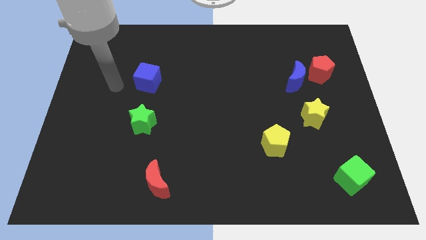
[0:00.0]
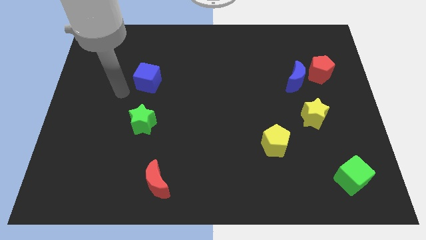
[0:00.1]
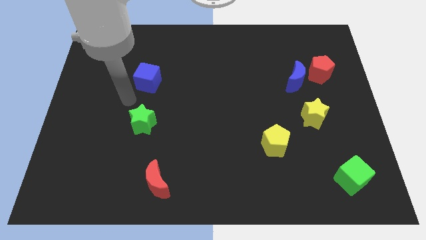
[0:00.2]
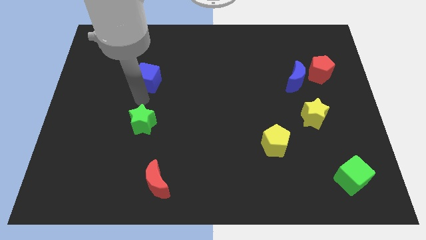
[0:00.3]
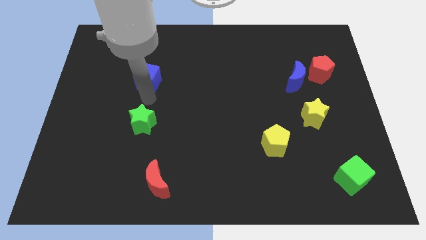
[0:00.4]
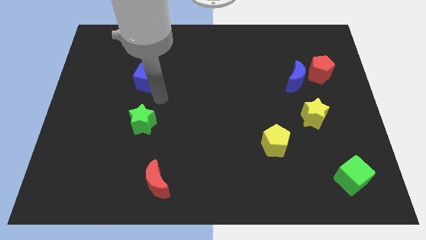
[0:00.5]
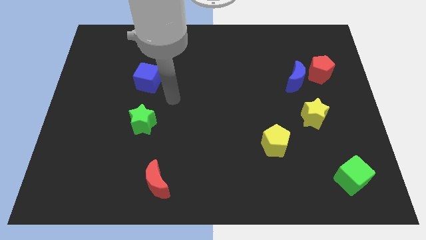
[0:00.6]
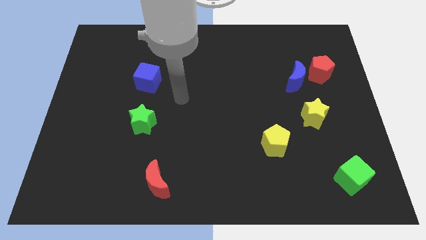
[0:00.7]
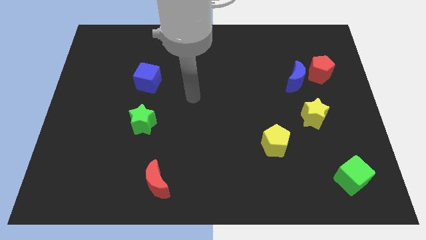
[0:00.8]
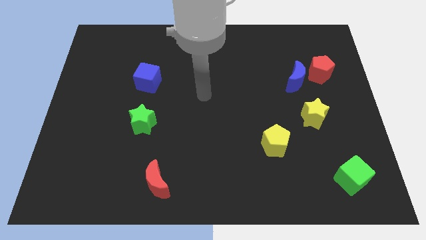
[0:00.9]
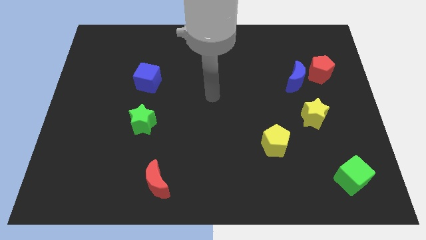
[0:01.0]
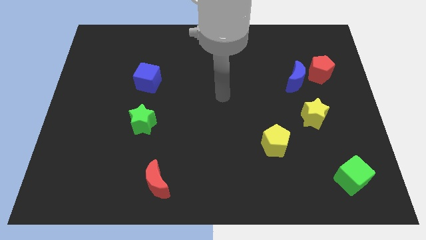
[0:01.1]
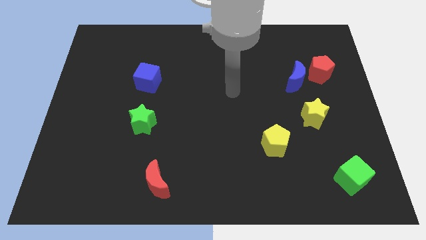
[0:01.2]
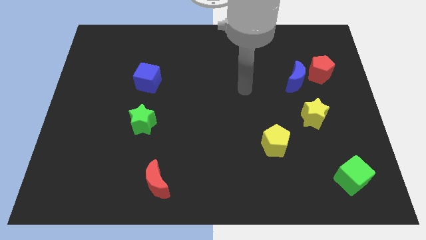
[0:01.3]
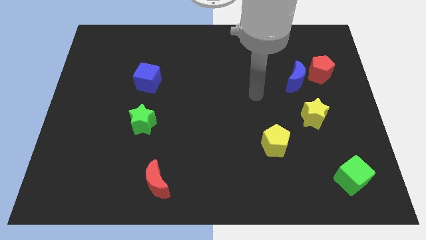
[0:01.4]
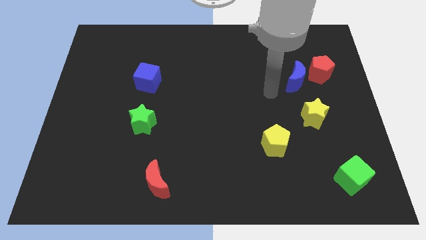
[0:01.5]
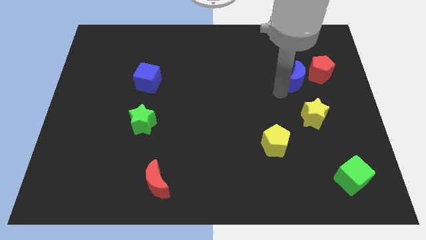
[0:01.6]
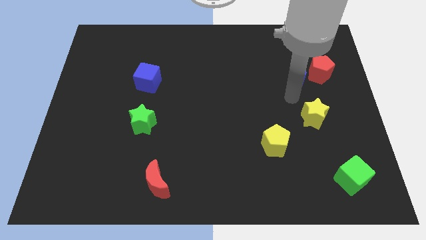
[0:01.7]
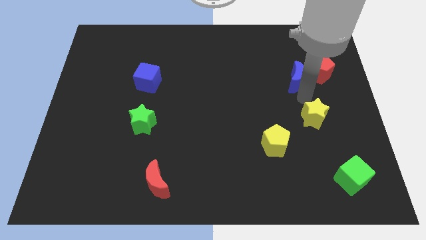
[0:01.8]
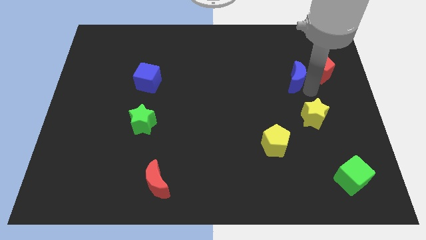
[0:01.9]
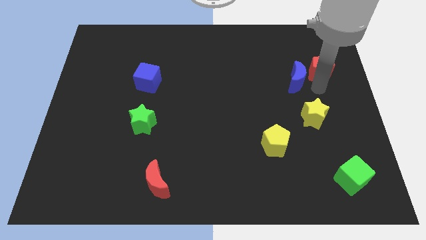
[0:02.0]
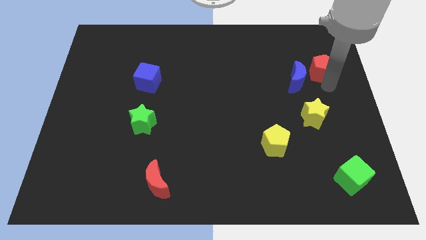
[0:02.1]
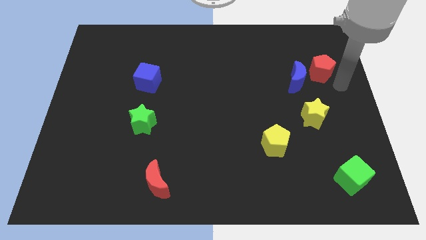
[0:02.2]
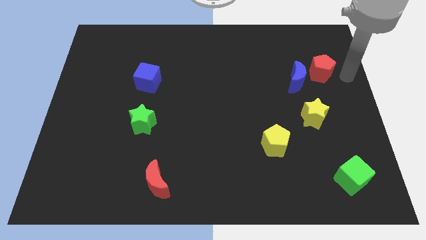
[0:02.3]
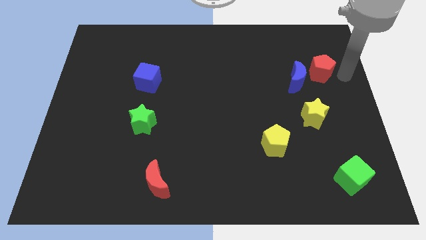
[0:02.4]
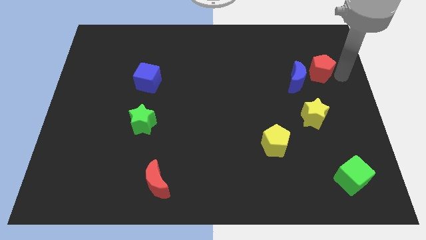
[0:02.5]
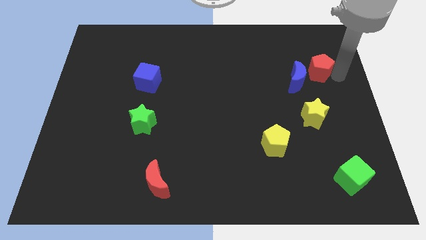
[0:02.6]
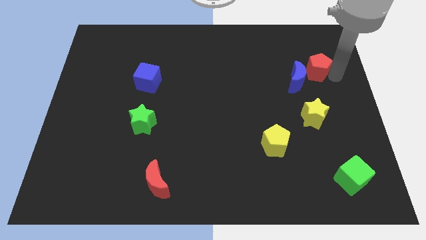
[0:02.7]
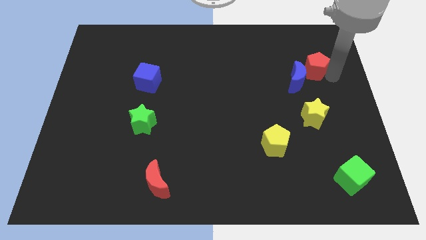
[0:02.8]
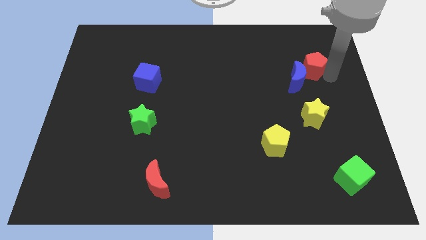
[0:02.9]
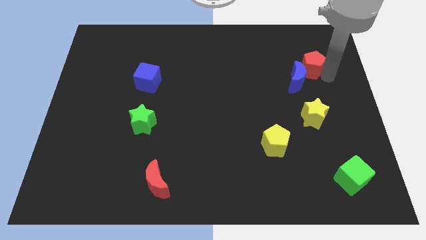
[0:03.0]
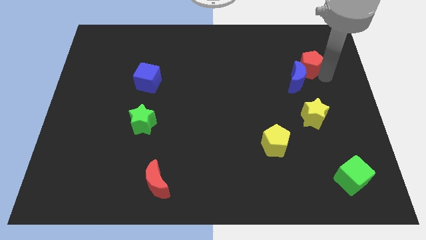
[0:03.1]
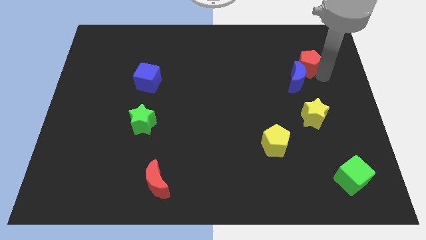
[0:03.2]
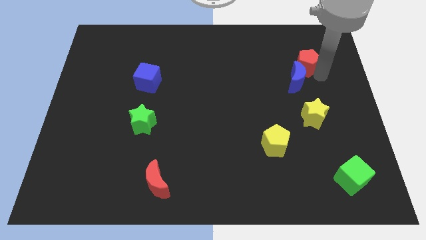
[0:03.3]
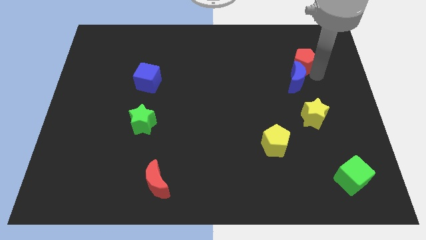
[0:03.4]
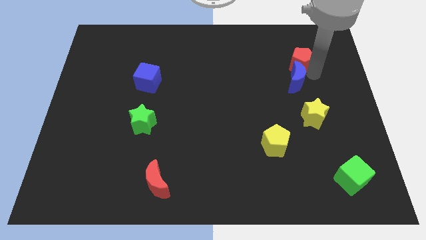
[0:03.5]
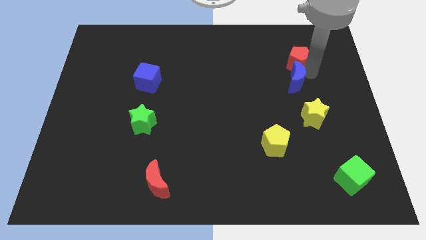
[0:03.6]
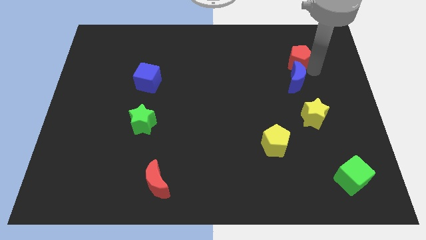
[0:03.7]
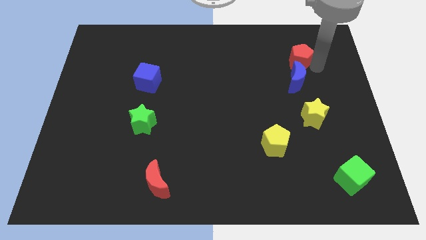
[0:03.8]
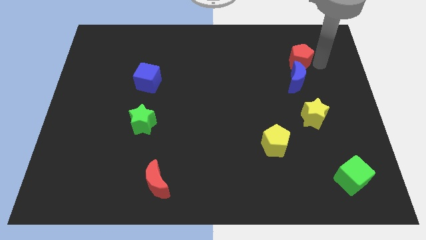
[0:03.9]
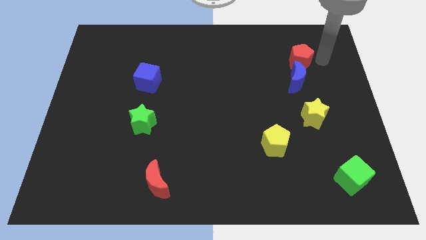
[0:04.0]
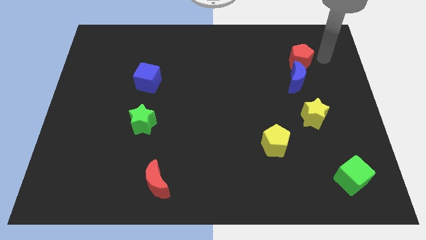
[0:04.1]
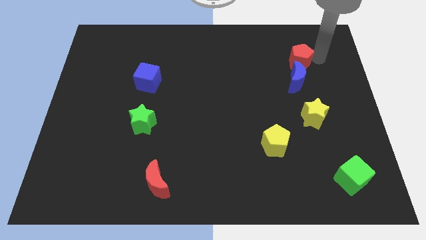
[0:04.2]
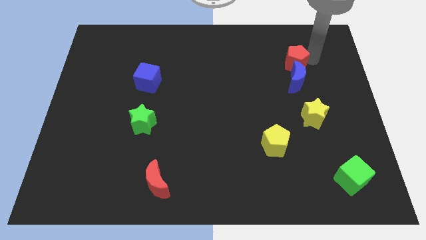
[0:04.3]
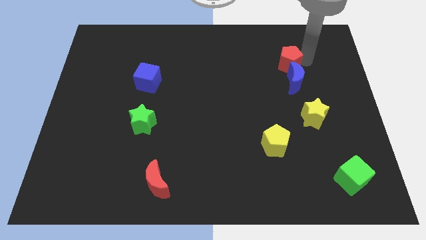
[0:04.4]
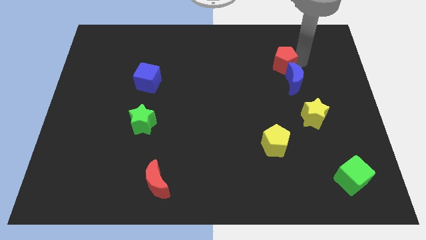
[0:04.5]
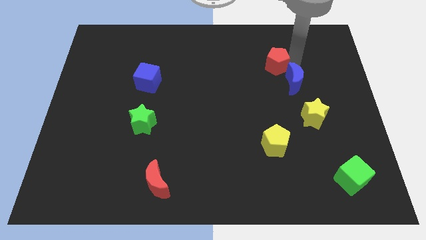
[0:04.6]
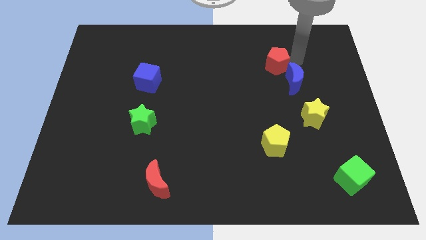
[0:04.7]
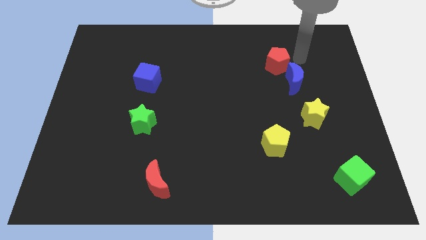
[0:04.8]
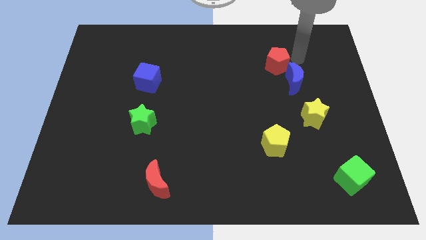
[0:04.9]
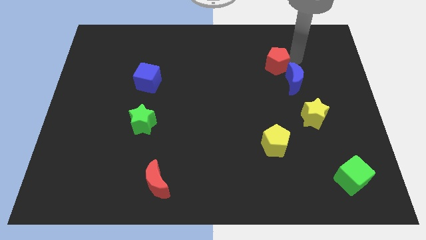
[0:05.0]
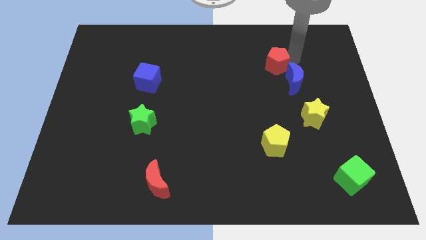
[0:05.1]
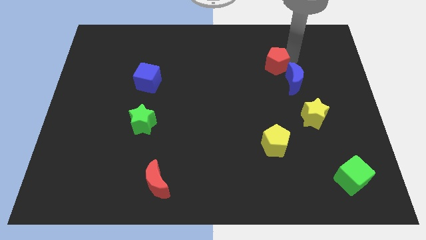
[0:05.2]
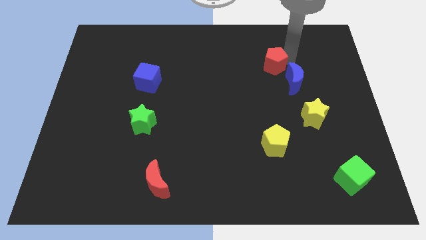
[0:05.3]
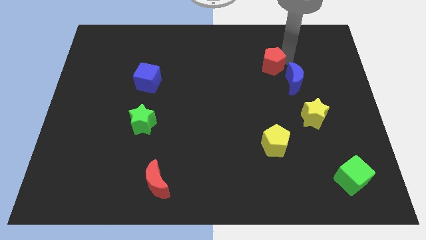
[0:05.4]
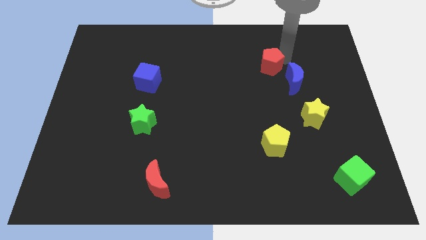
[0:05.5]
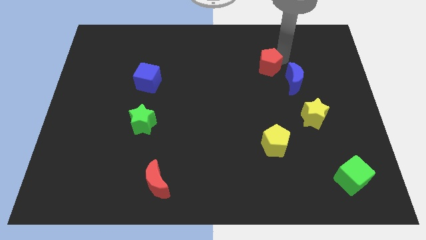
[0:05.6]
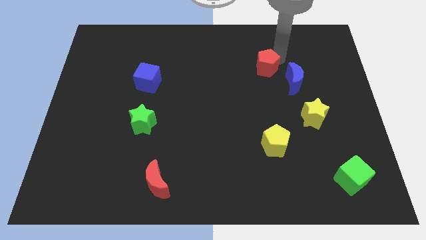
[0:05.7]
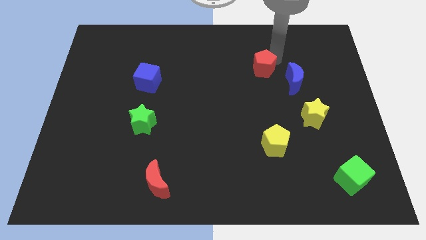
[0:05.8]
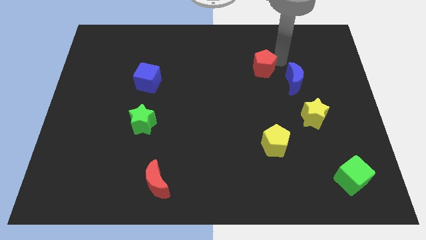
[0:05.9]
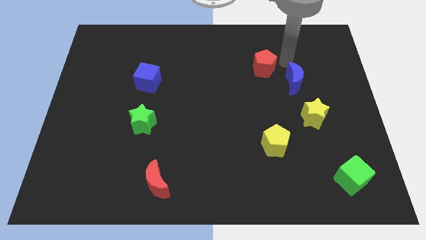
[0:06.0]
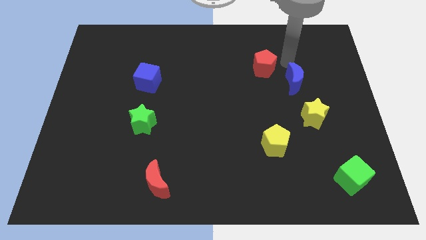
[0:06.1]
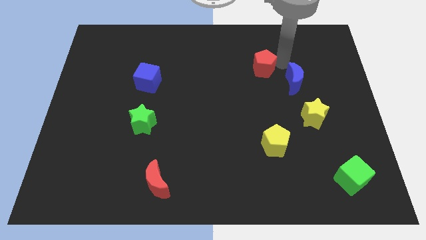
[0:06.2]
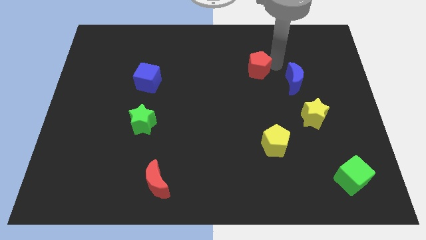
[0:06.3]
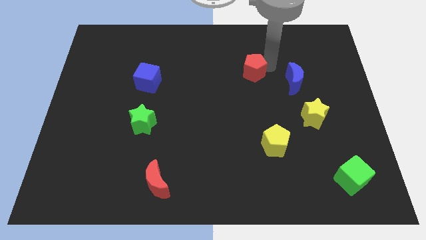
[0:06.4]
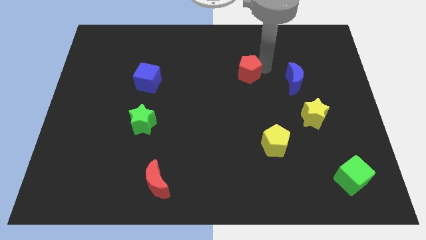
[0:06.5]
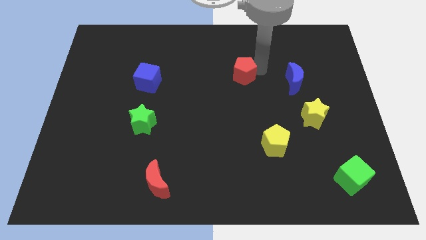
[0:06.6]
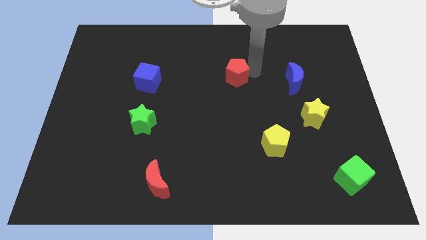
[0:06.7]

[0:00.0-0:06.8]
move the red pentagon left

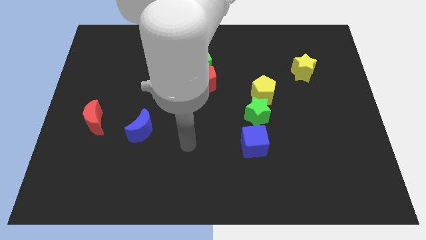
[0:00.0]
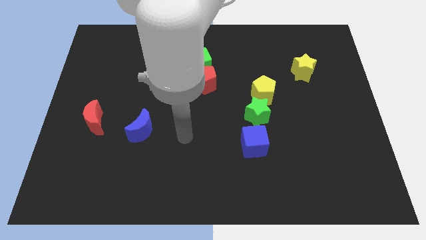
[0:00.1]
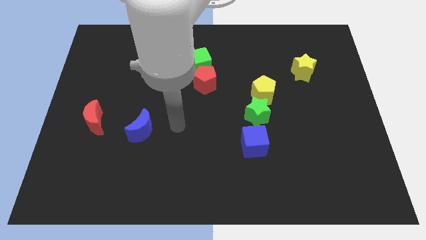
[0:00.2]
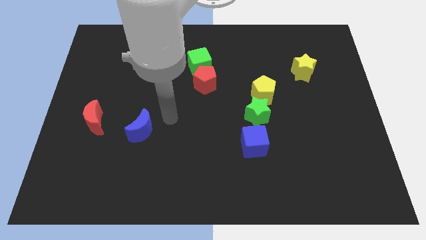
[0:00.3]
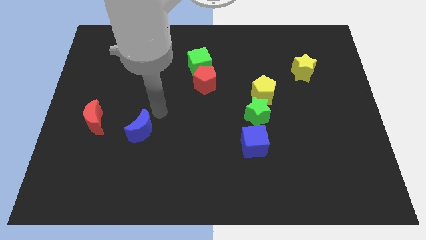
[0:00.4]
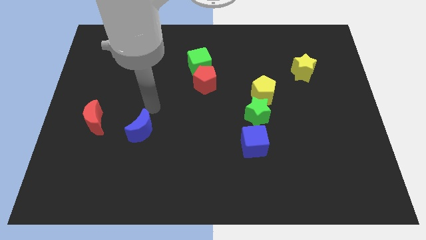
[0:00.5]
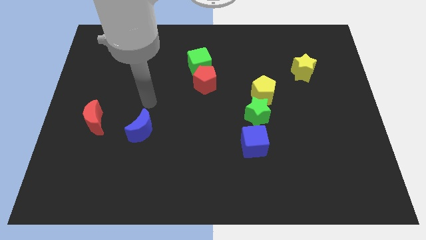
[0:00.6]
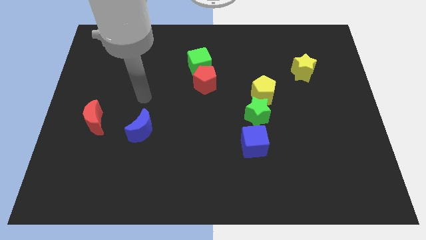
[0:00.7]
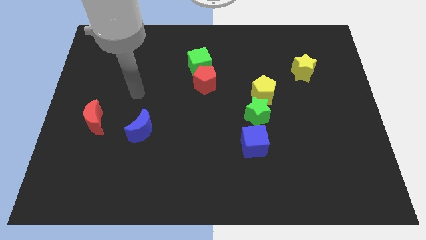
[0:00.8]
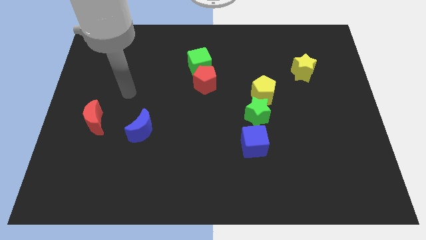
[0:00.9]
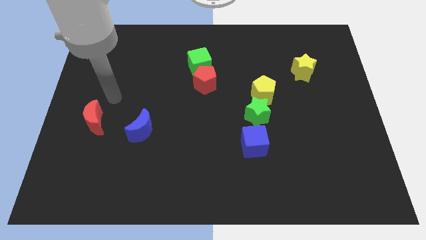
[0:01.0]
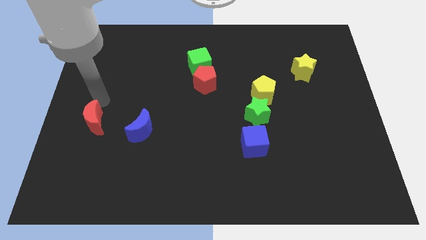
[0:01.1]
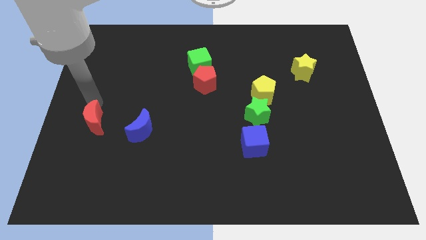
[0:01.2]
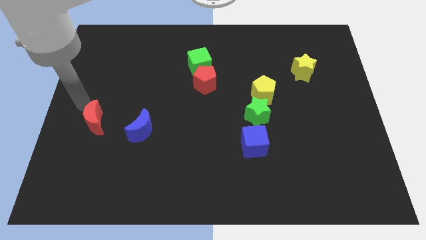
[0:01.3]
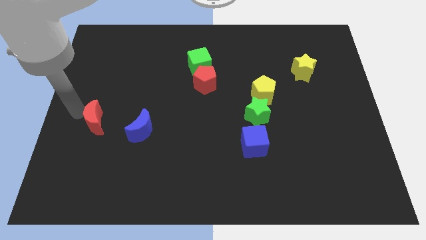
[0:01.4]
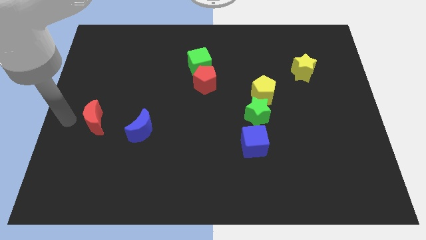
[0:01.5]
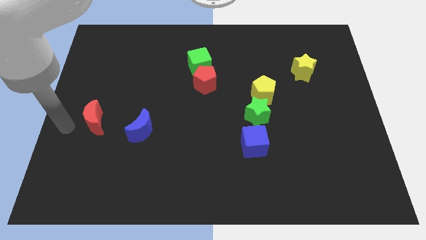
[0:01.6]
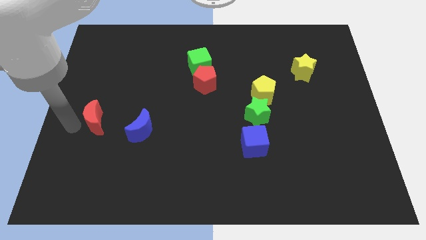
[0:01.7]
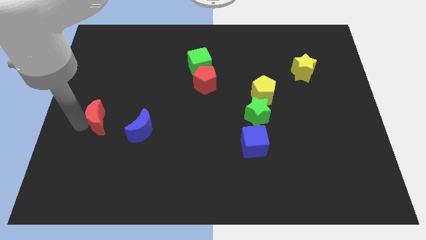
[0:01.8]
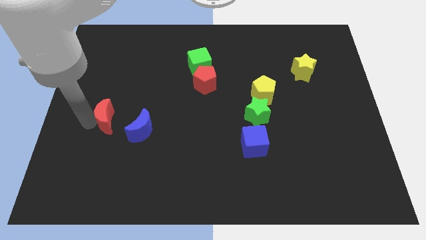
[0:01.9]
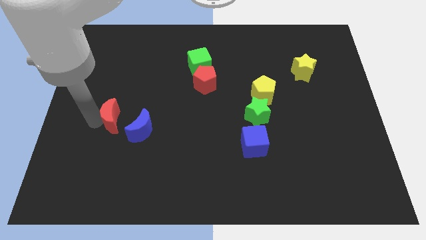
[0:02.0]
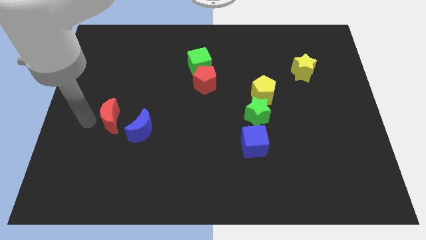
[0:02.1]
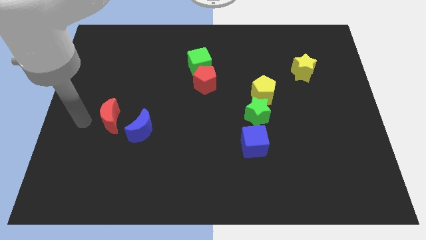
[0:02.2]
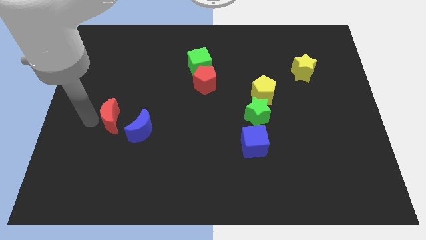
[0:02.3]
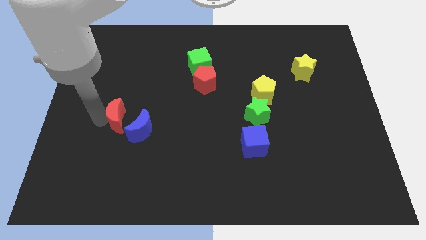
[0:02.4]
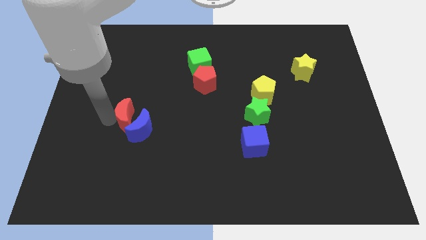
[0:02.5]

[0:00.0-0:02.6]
move the red moon to the right a little
